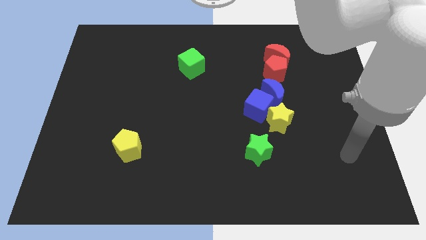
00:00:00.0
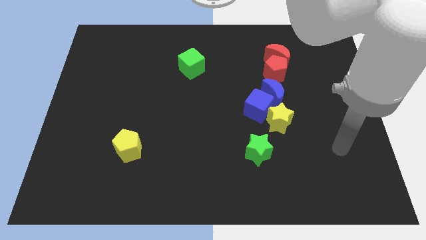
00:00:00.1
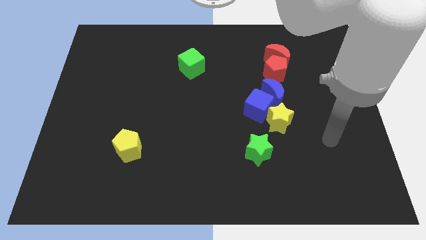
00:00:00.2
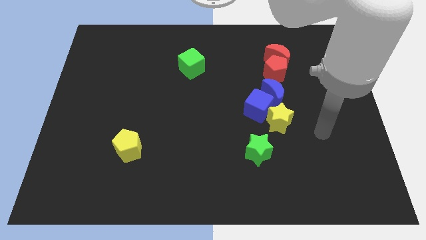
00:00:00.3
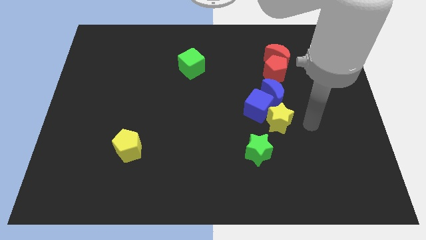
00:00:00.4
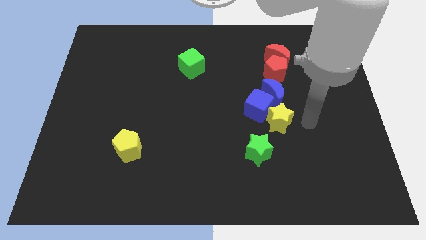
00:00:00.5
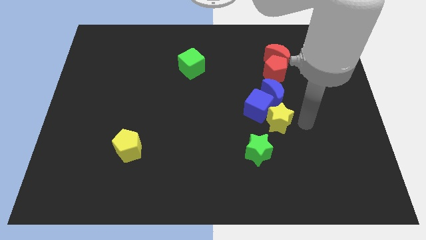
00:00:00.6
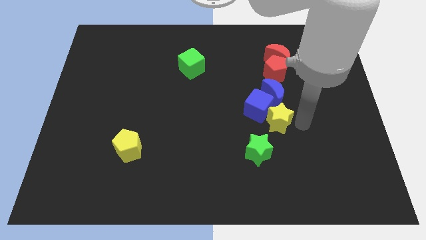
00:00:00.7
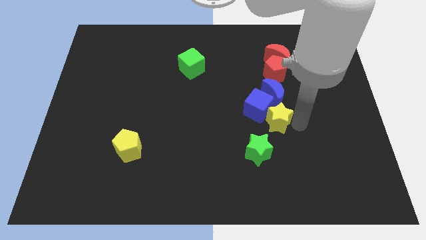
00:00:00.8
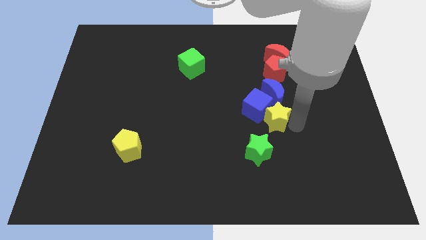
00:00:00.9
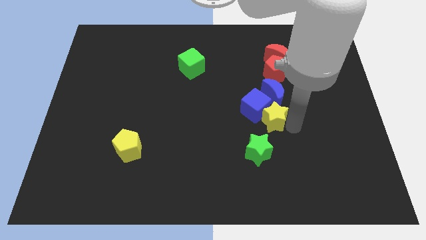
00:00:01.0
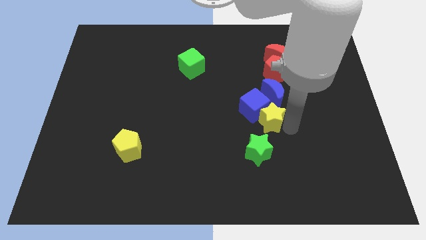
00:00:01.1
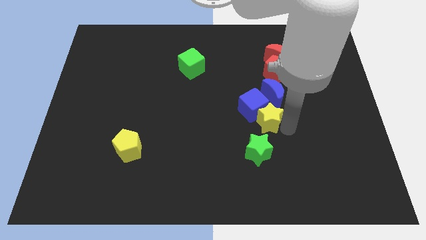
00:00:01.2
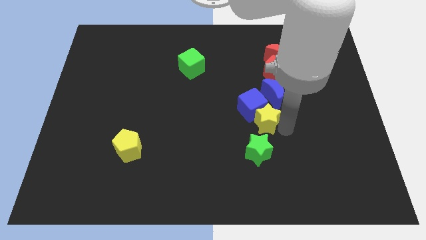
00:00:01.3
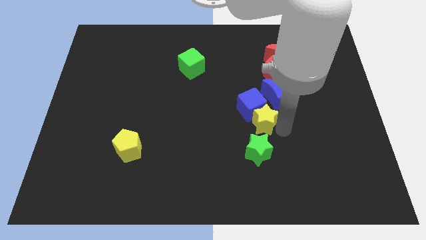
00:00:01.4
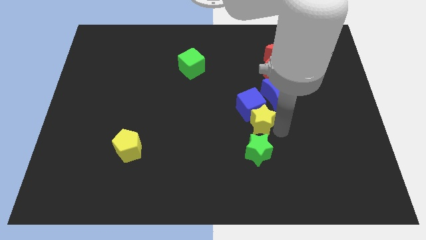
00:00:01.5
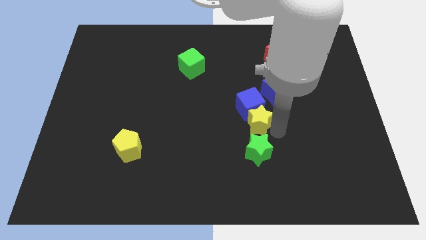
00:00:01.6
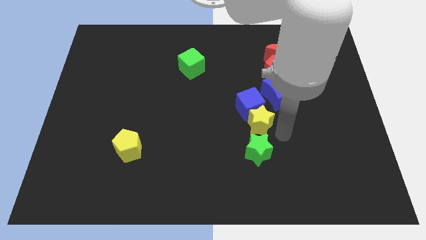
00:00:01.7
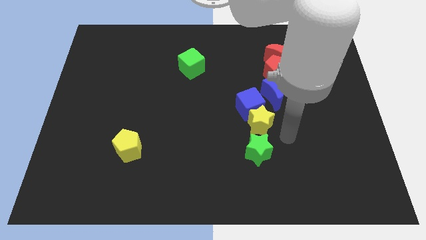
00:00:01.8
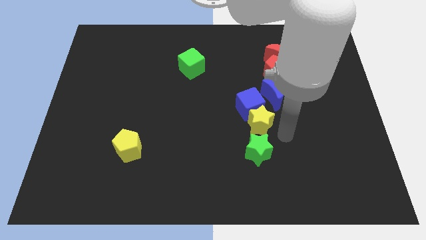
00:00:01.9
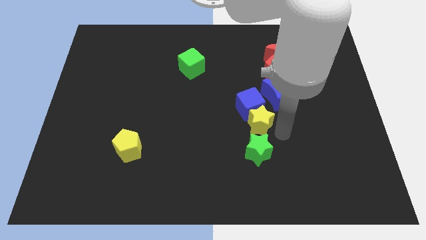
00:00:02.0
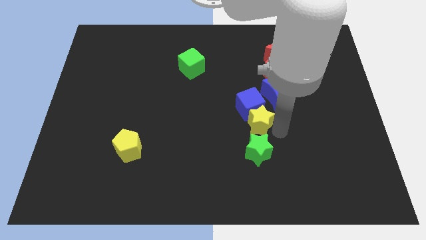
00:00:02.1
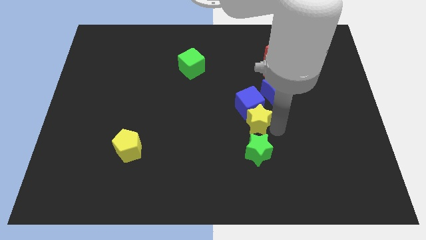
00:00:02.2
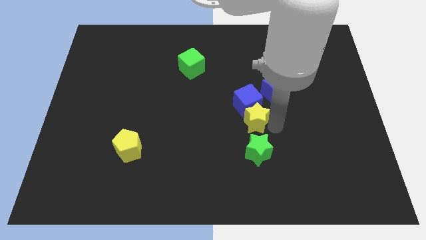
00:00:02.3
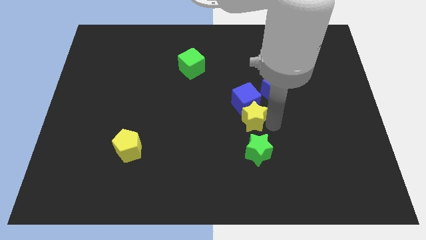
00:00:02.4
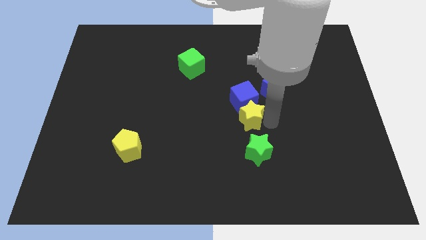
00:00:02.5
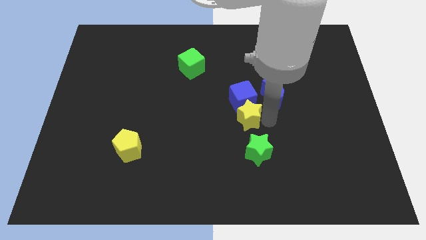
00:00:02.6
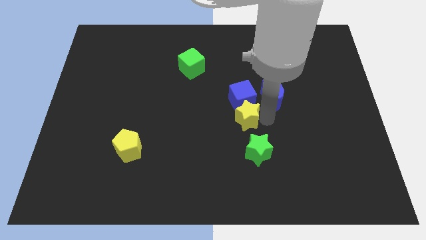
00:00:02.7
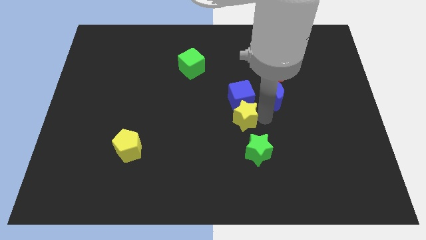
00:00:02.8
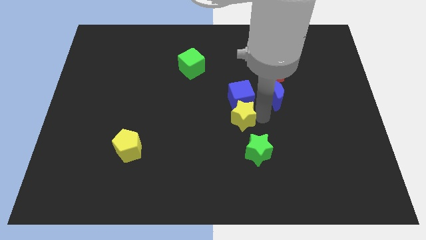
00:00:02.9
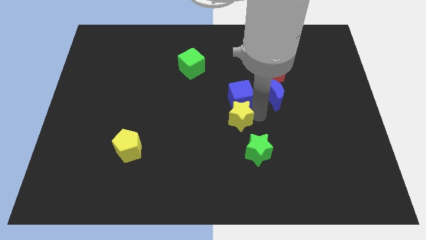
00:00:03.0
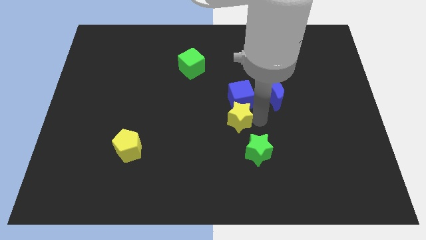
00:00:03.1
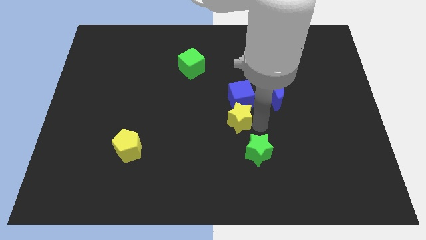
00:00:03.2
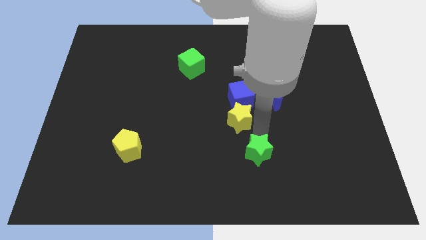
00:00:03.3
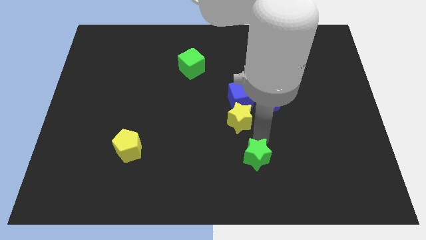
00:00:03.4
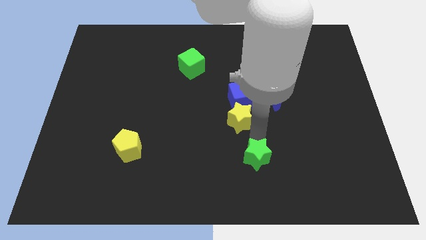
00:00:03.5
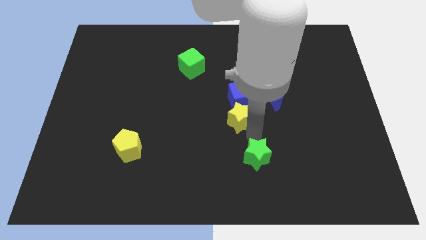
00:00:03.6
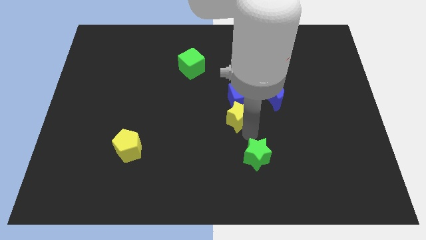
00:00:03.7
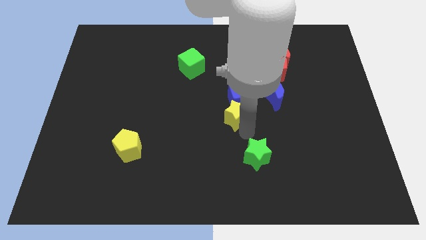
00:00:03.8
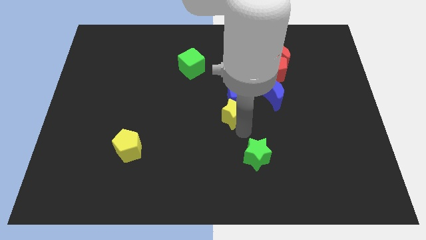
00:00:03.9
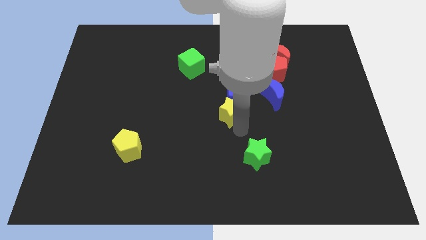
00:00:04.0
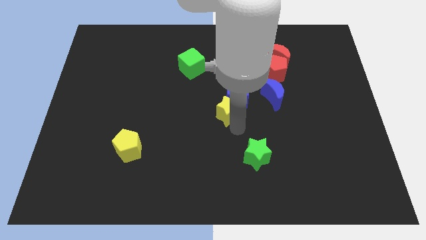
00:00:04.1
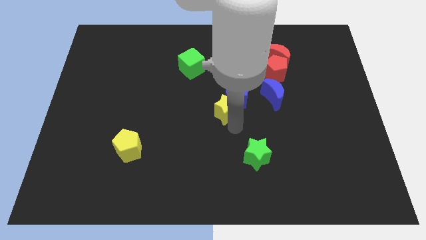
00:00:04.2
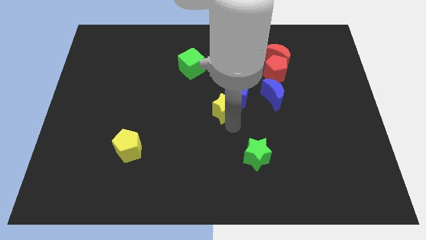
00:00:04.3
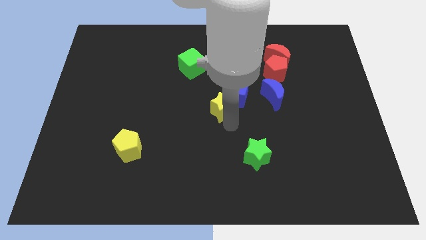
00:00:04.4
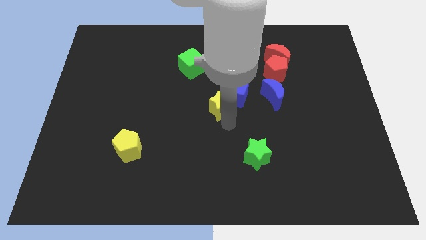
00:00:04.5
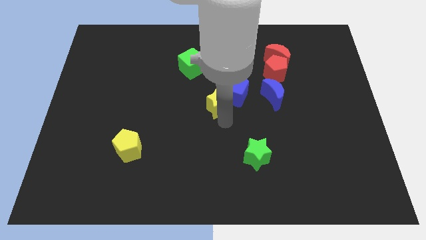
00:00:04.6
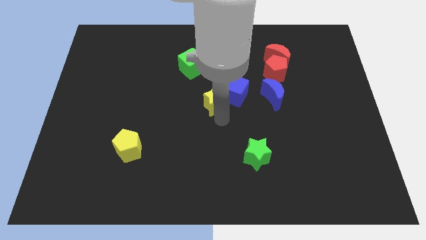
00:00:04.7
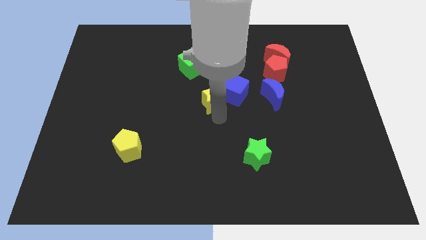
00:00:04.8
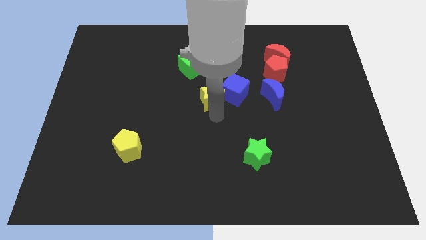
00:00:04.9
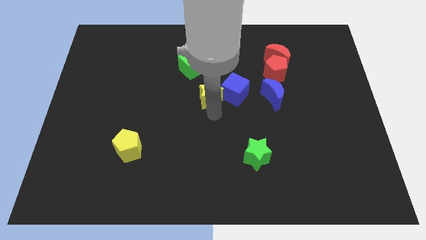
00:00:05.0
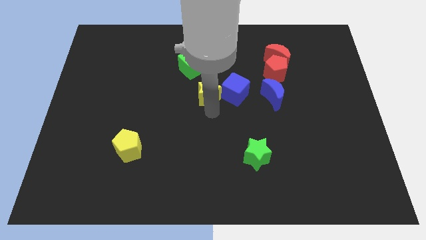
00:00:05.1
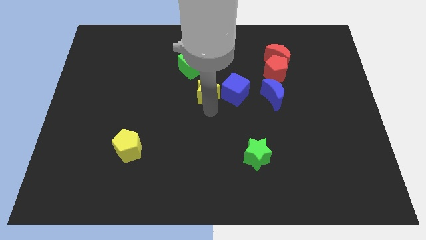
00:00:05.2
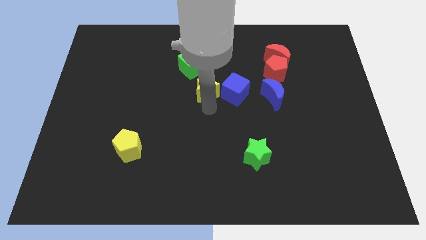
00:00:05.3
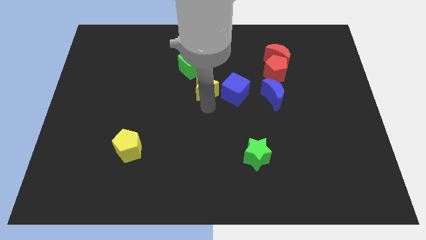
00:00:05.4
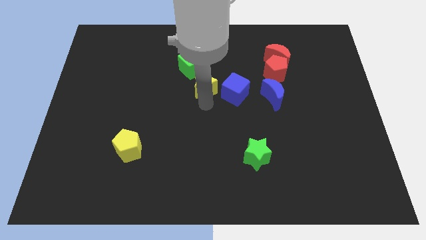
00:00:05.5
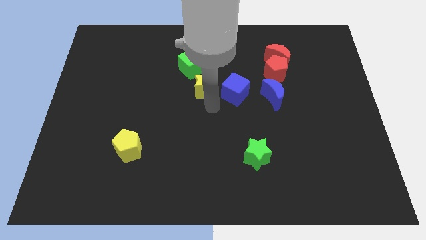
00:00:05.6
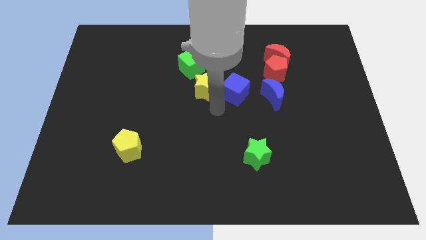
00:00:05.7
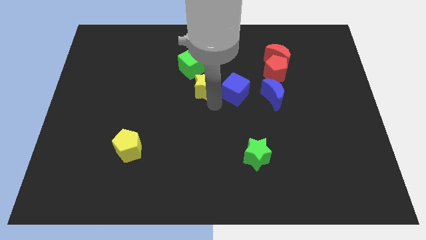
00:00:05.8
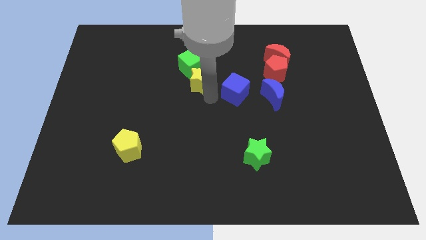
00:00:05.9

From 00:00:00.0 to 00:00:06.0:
move the yellow star towards the green cube

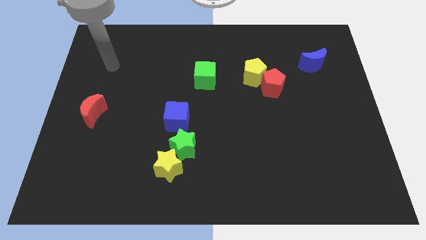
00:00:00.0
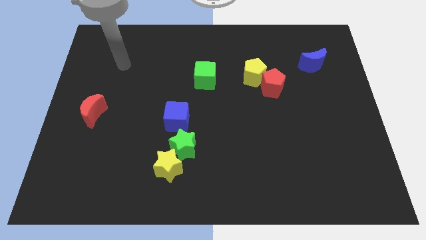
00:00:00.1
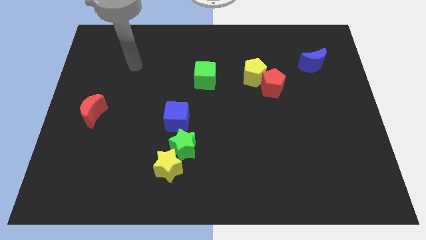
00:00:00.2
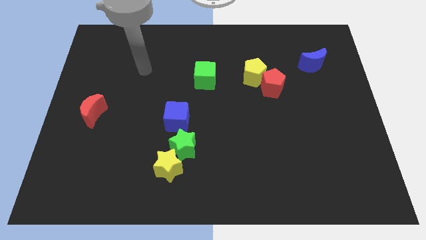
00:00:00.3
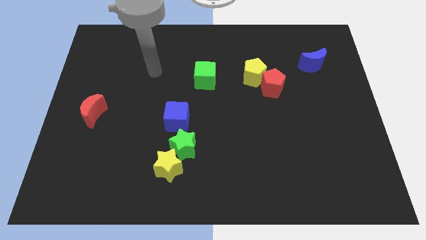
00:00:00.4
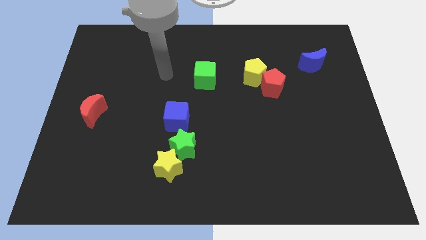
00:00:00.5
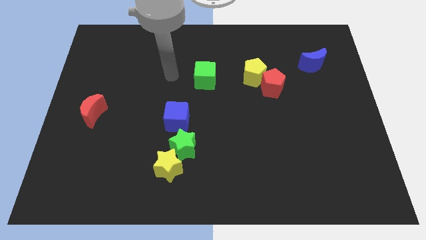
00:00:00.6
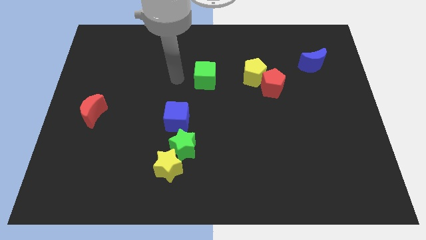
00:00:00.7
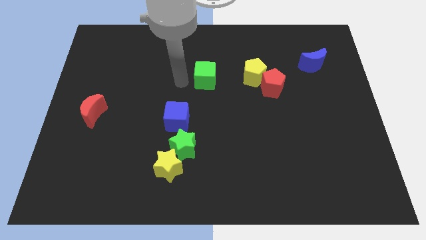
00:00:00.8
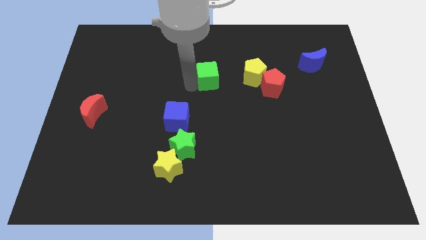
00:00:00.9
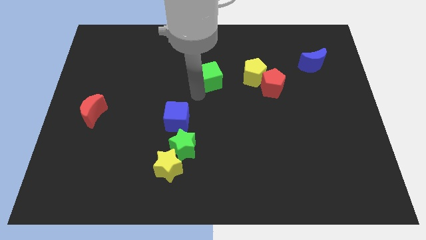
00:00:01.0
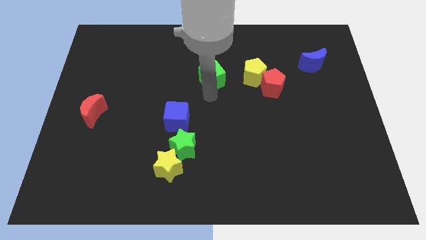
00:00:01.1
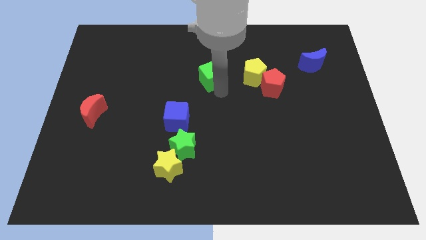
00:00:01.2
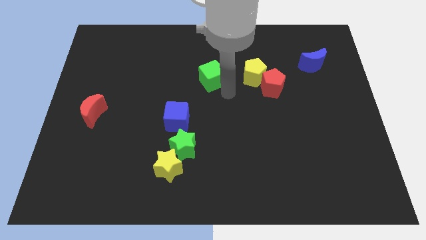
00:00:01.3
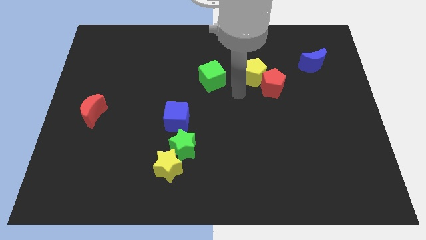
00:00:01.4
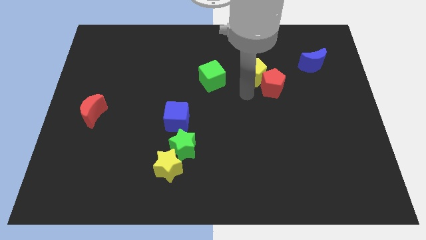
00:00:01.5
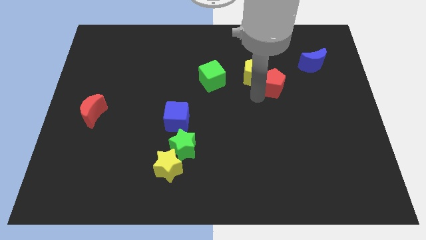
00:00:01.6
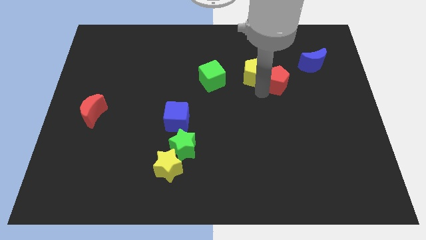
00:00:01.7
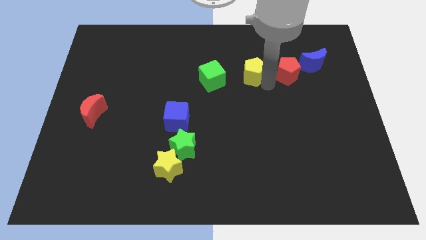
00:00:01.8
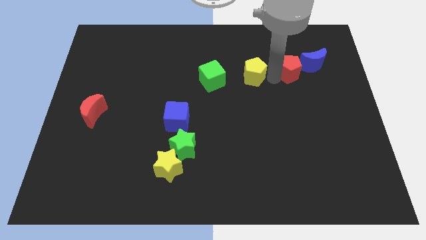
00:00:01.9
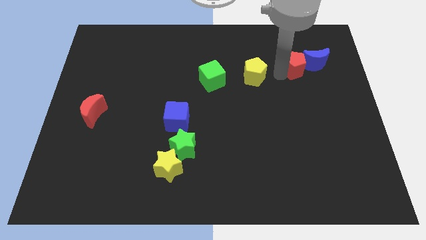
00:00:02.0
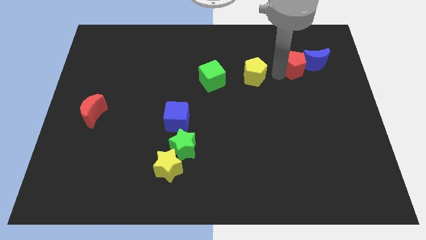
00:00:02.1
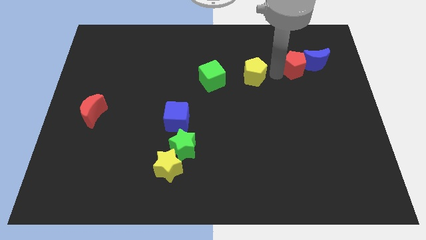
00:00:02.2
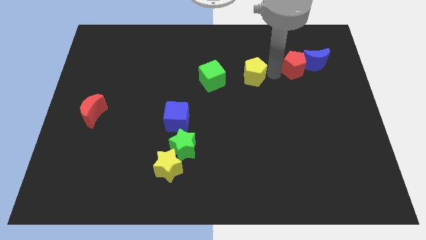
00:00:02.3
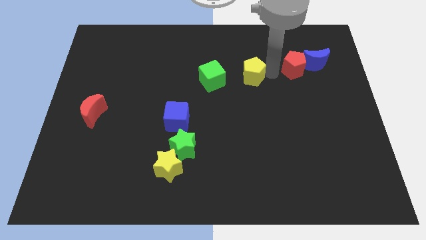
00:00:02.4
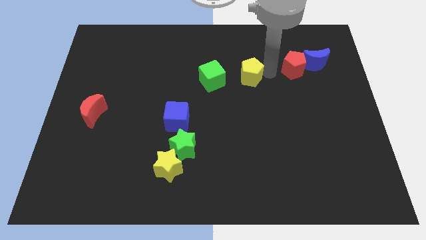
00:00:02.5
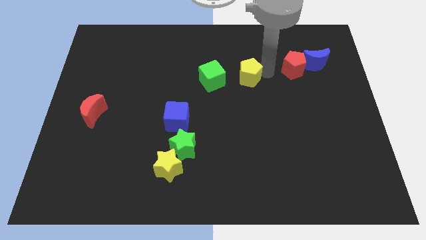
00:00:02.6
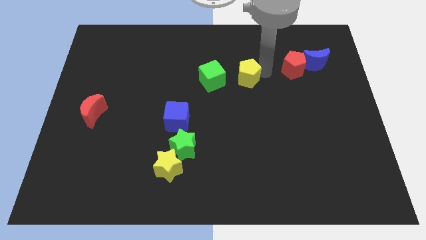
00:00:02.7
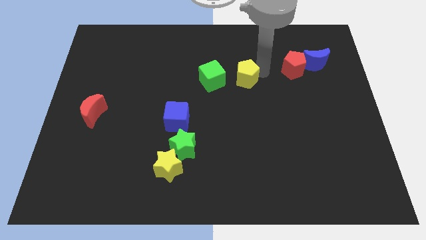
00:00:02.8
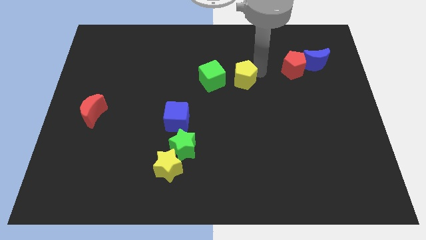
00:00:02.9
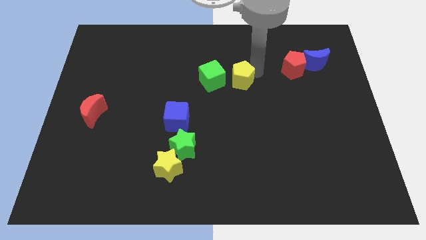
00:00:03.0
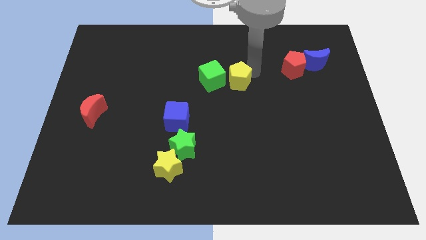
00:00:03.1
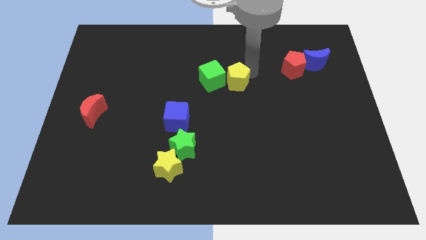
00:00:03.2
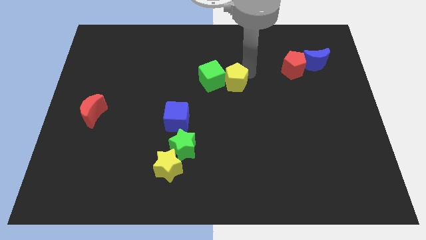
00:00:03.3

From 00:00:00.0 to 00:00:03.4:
put the yellow pentagon close to the green cube
